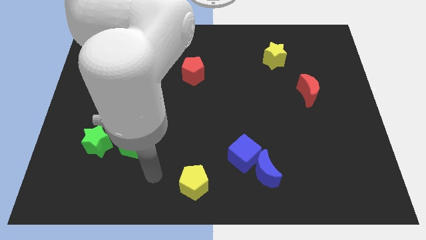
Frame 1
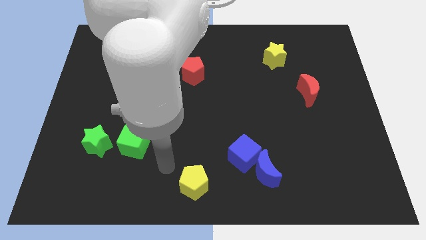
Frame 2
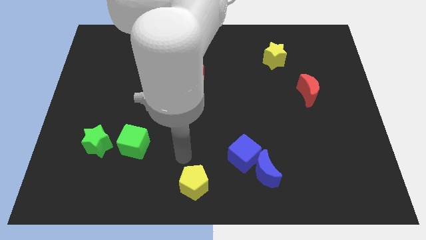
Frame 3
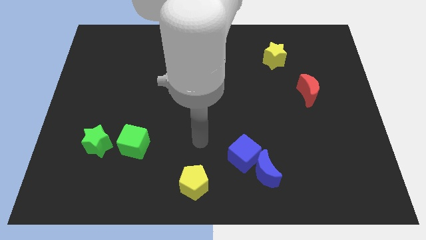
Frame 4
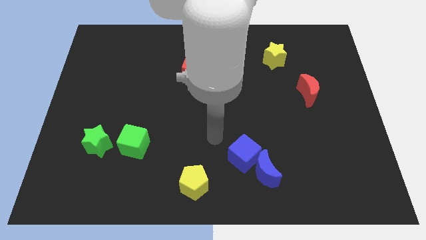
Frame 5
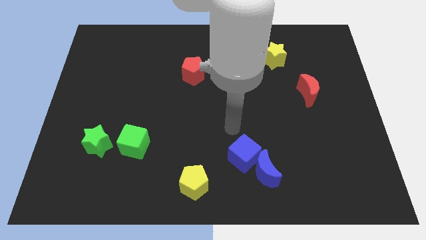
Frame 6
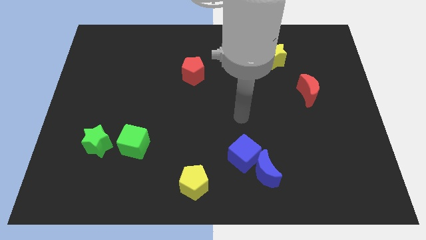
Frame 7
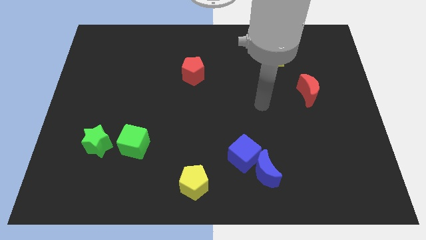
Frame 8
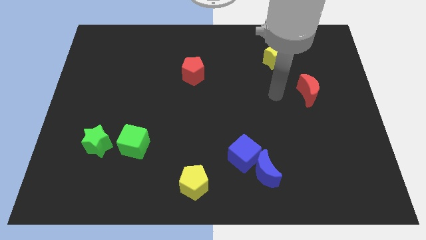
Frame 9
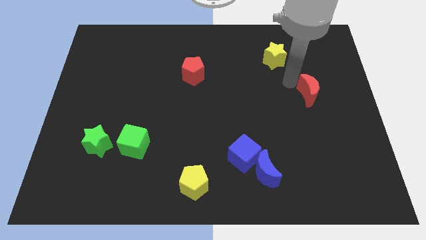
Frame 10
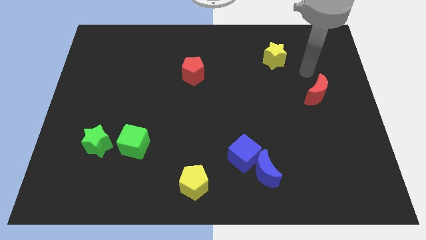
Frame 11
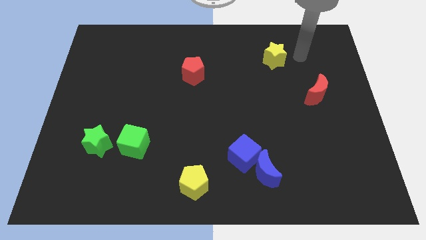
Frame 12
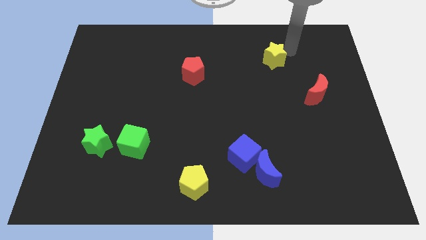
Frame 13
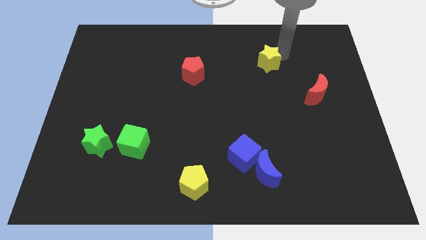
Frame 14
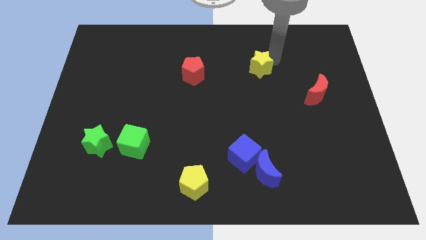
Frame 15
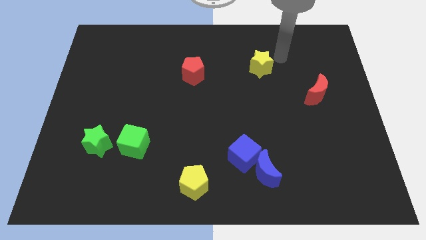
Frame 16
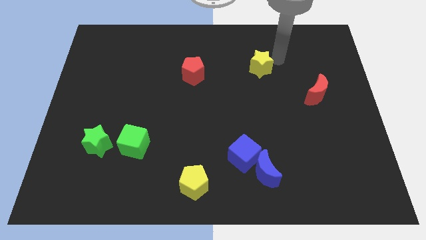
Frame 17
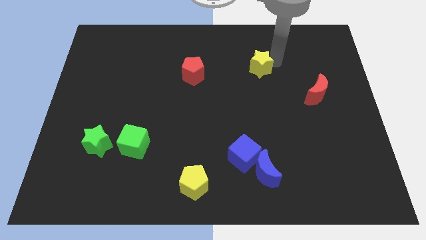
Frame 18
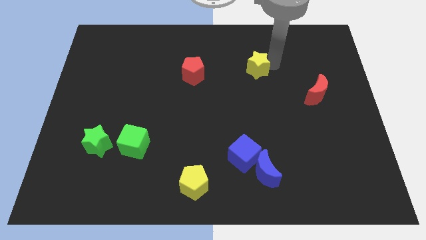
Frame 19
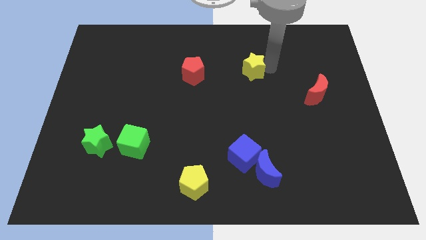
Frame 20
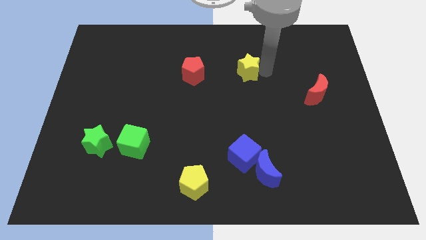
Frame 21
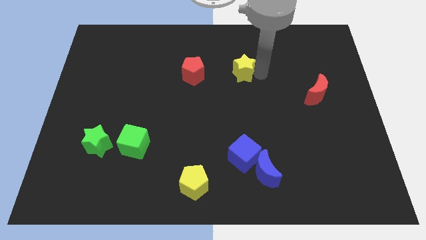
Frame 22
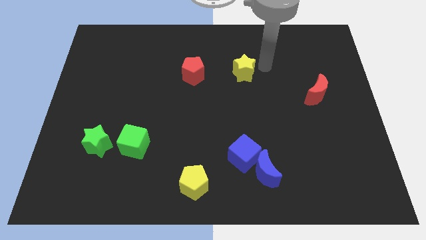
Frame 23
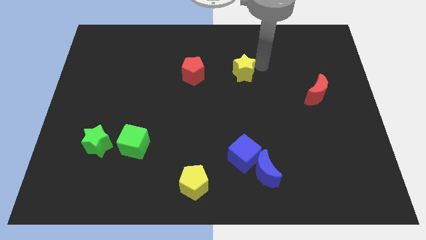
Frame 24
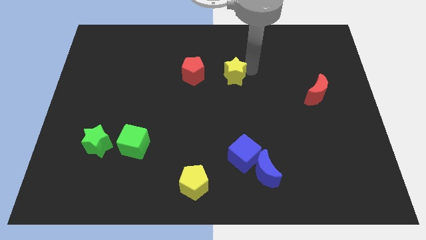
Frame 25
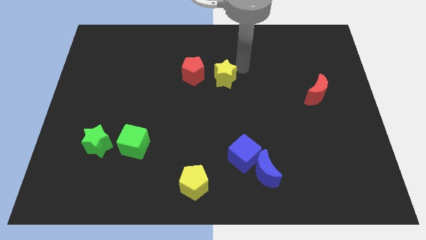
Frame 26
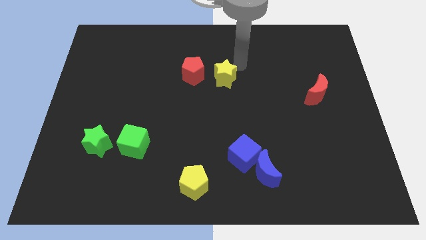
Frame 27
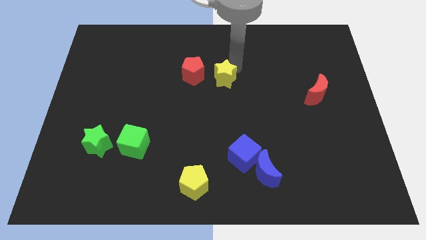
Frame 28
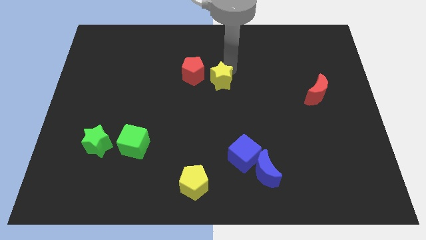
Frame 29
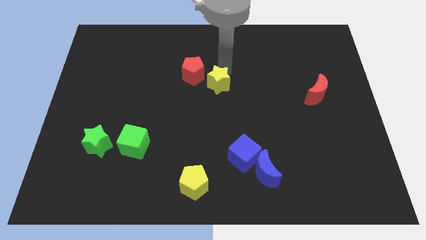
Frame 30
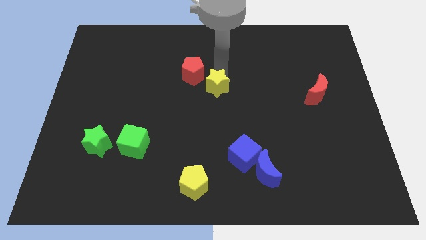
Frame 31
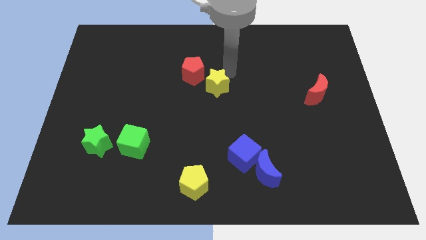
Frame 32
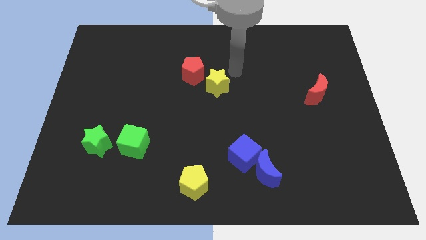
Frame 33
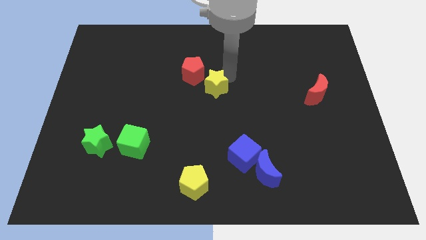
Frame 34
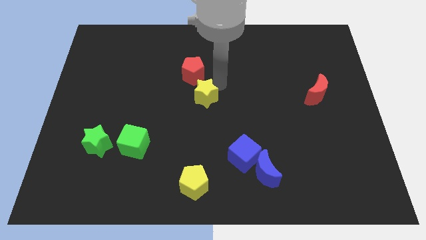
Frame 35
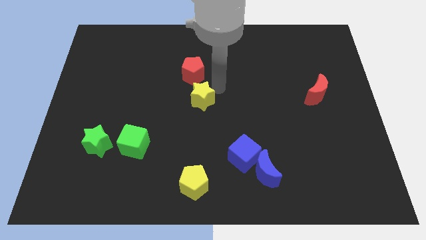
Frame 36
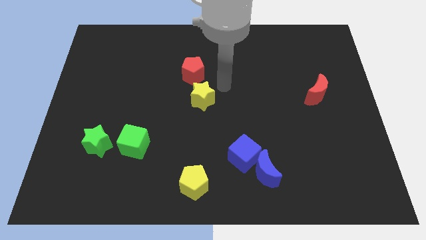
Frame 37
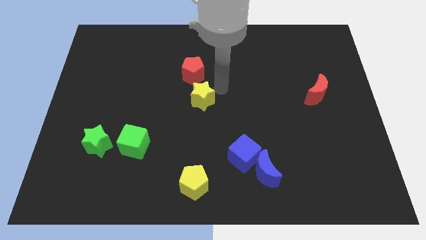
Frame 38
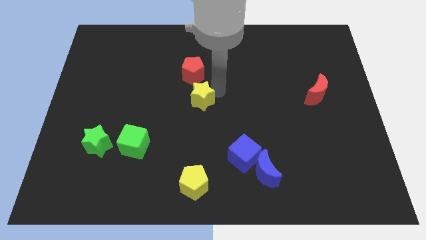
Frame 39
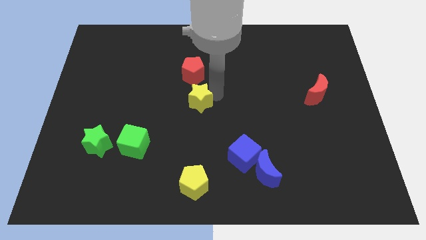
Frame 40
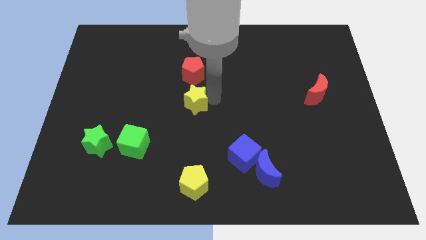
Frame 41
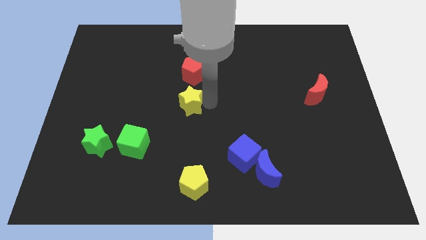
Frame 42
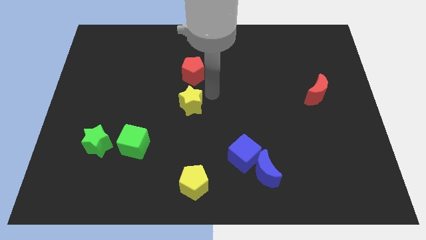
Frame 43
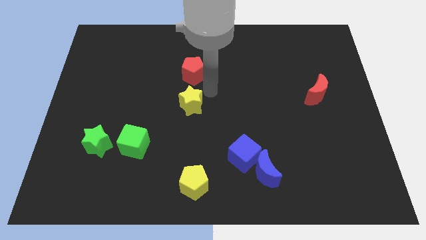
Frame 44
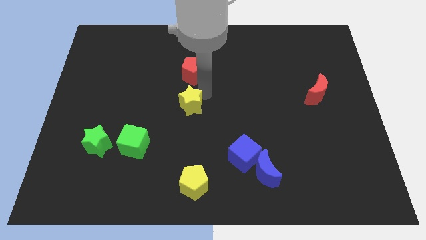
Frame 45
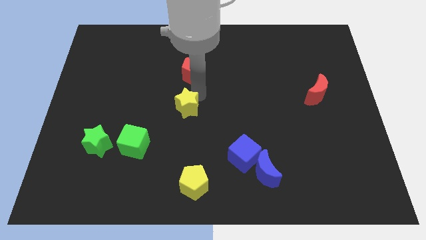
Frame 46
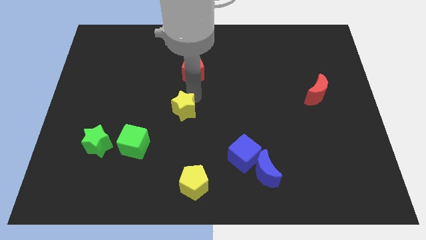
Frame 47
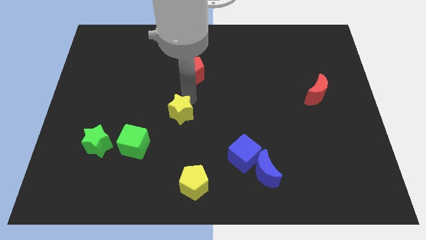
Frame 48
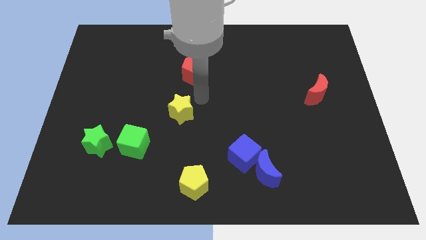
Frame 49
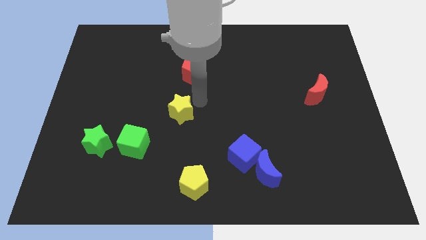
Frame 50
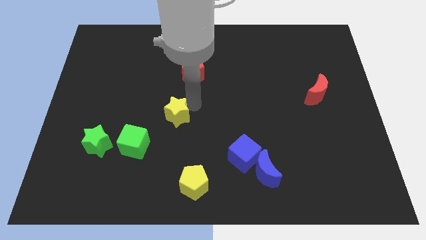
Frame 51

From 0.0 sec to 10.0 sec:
push the yellow star to the top right side of the green cube

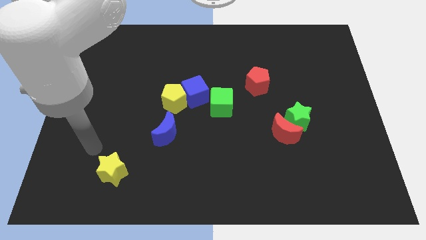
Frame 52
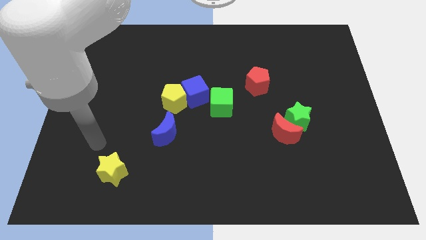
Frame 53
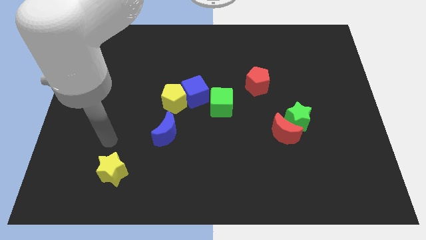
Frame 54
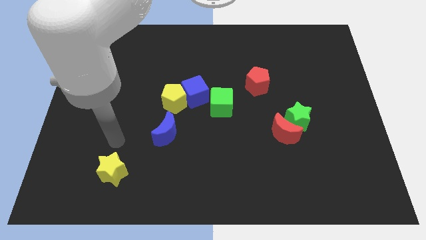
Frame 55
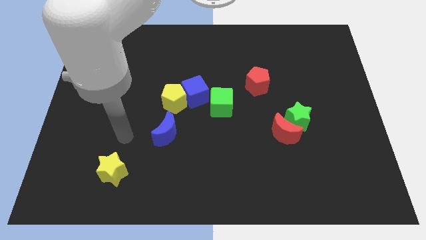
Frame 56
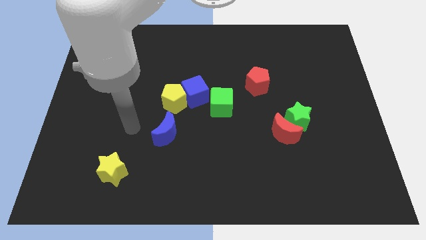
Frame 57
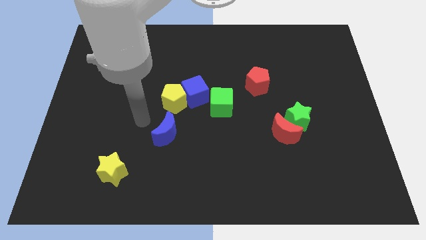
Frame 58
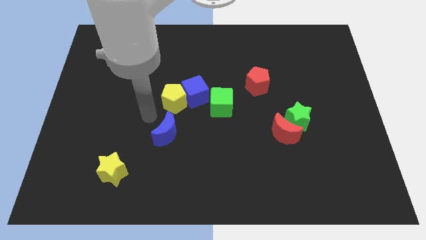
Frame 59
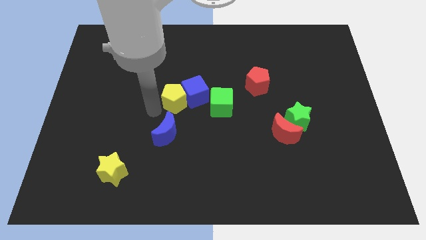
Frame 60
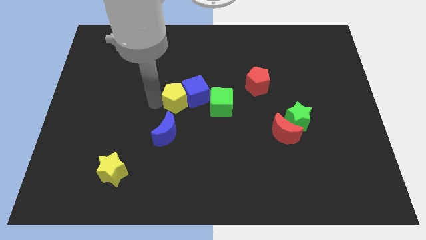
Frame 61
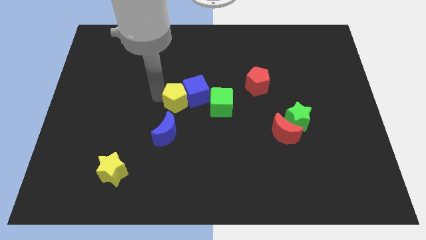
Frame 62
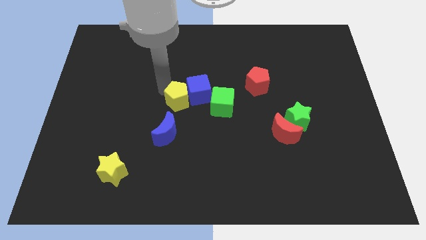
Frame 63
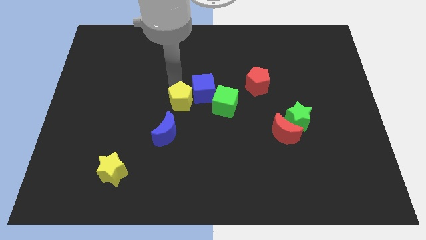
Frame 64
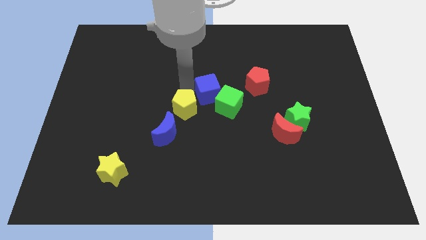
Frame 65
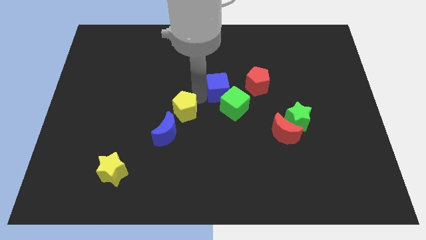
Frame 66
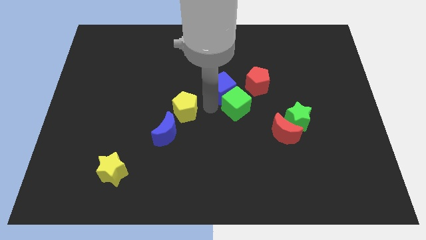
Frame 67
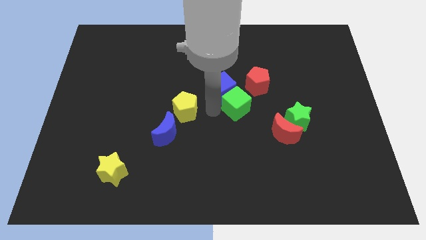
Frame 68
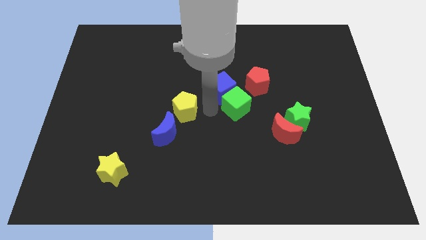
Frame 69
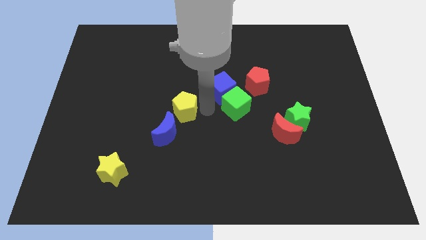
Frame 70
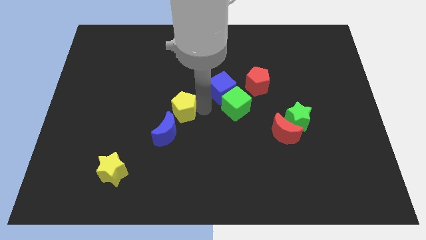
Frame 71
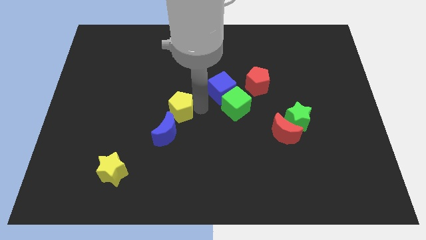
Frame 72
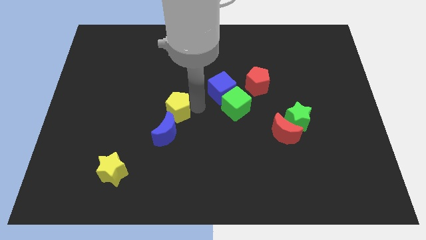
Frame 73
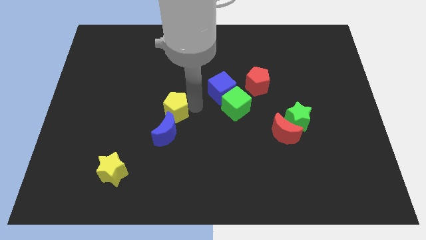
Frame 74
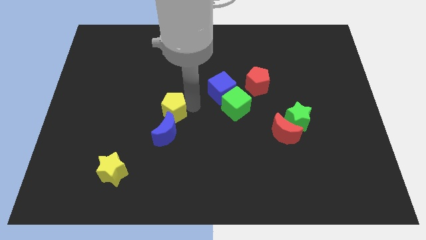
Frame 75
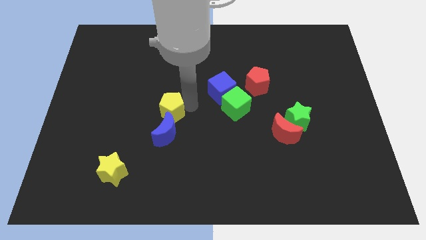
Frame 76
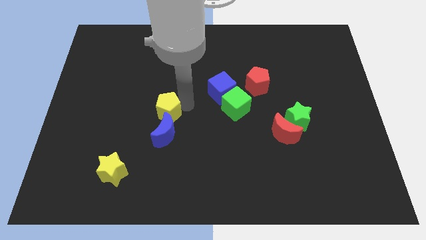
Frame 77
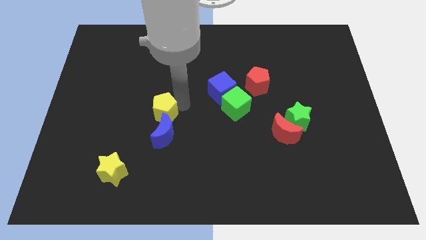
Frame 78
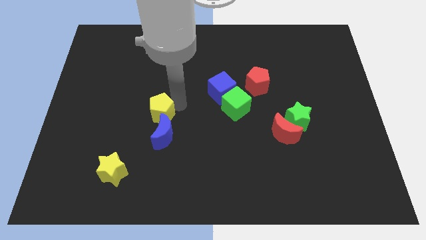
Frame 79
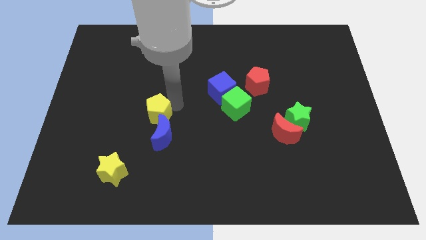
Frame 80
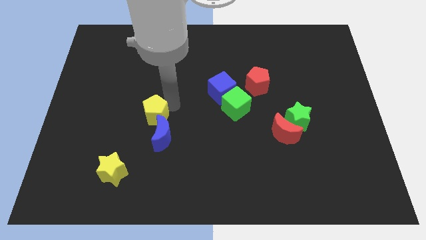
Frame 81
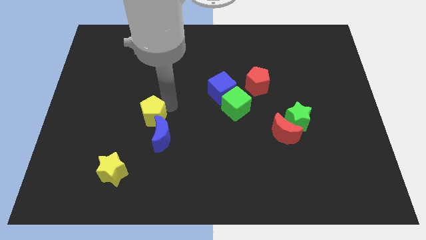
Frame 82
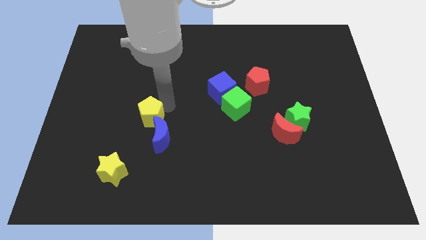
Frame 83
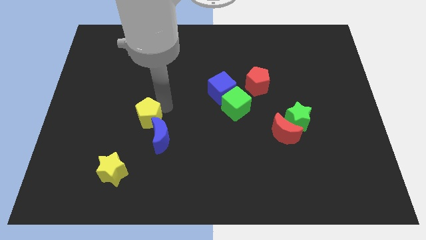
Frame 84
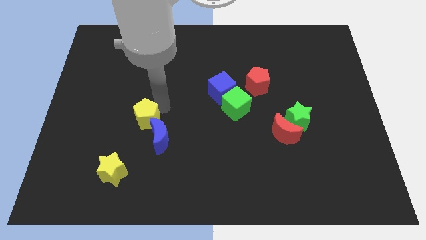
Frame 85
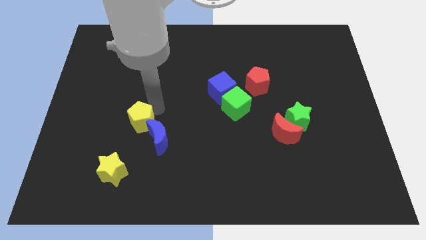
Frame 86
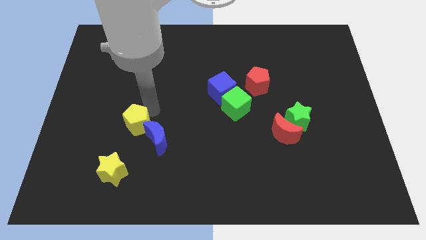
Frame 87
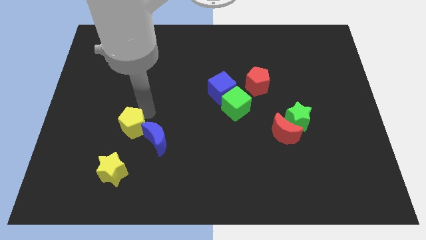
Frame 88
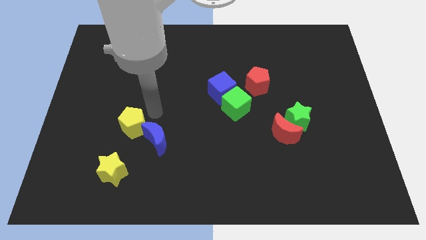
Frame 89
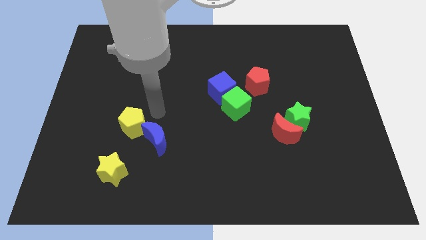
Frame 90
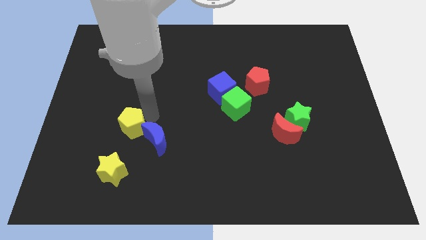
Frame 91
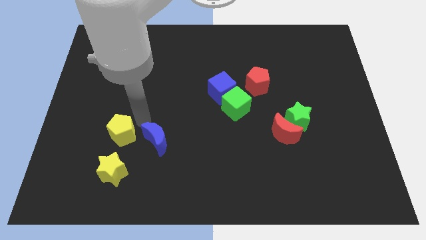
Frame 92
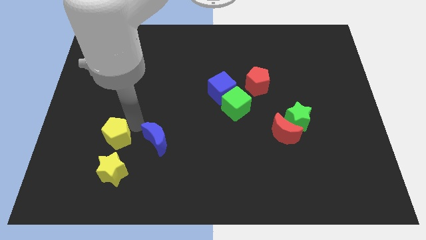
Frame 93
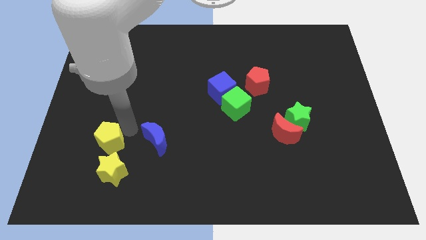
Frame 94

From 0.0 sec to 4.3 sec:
slide the yellow pentagon to the top left side of the yellow star
